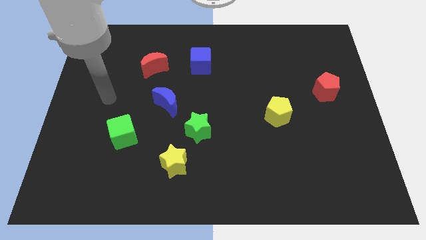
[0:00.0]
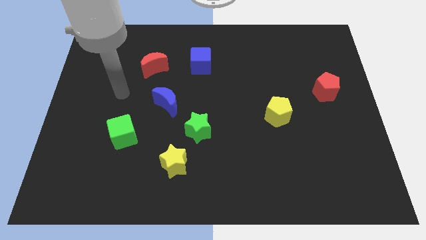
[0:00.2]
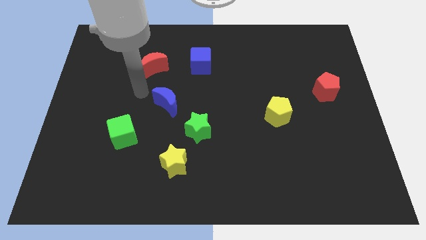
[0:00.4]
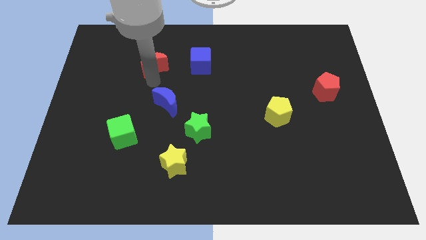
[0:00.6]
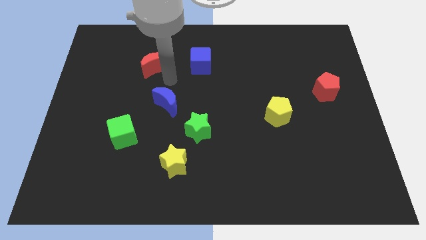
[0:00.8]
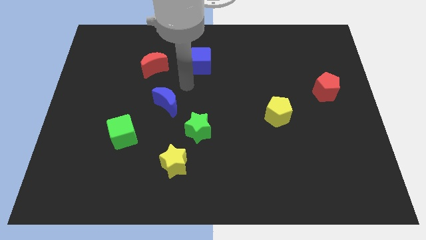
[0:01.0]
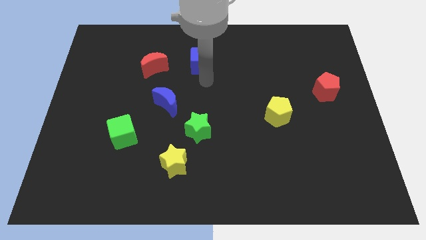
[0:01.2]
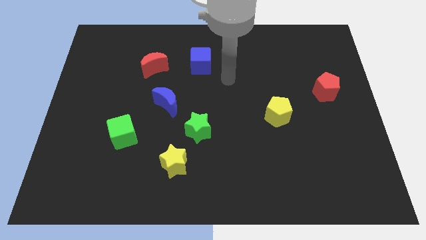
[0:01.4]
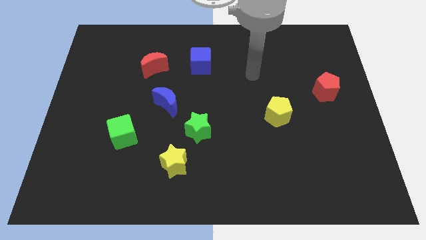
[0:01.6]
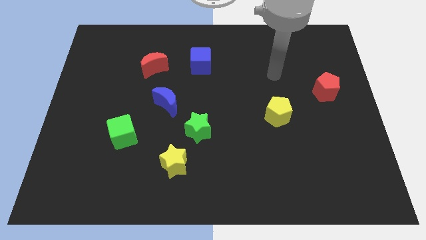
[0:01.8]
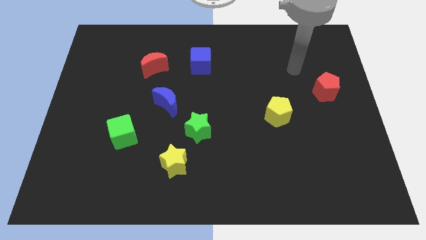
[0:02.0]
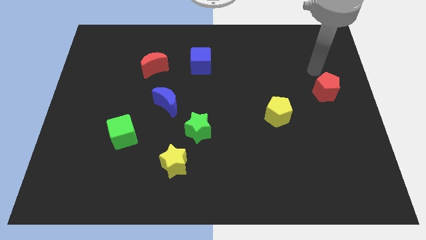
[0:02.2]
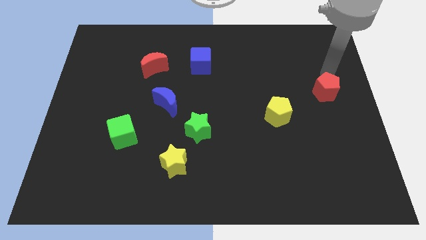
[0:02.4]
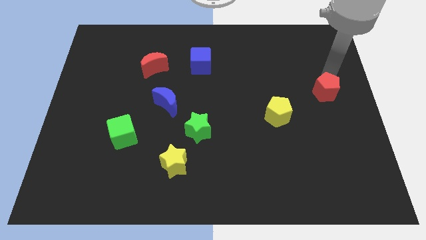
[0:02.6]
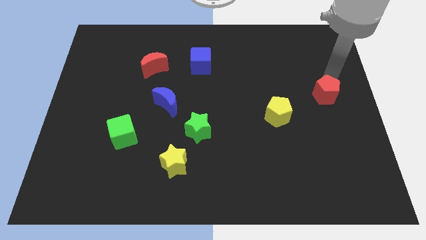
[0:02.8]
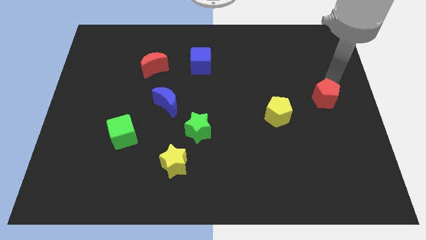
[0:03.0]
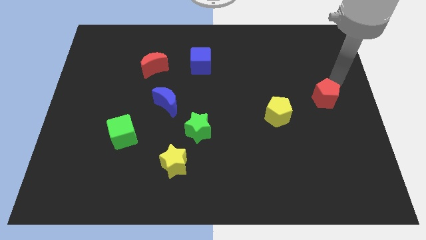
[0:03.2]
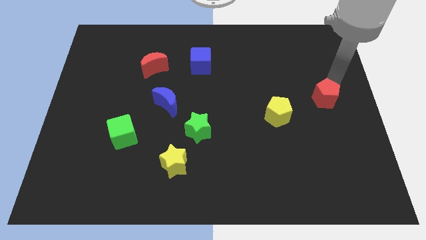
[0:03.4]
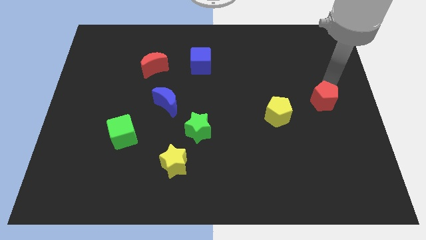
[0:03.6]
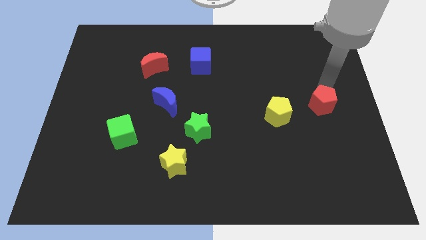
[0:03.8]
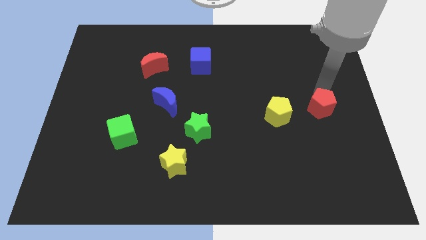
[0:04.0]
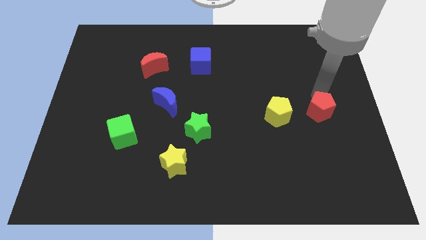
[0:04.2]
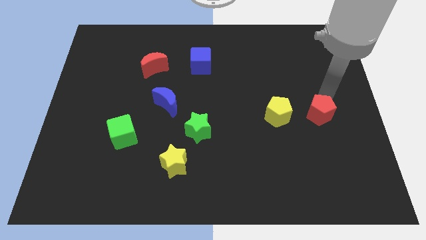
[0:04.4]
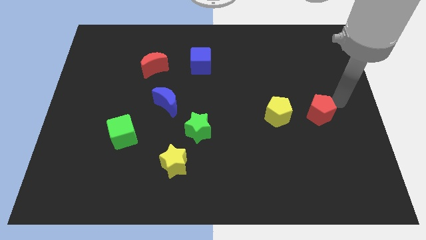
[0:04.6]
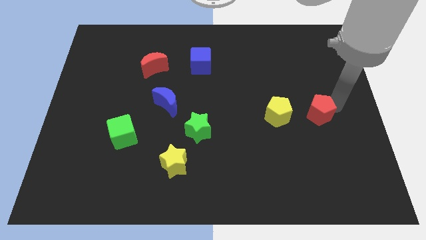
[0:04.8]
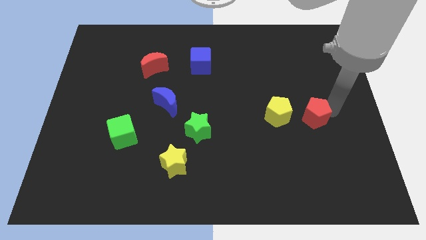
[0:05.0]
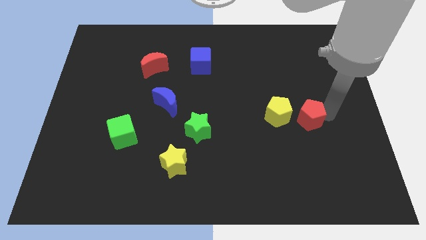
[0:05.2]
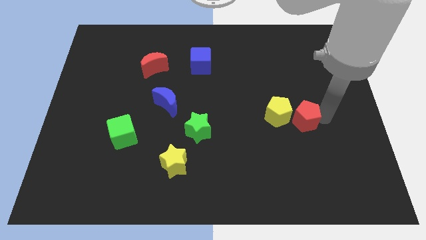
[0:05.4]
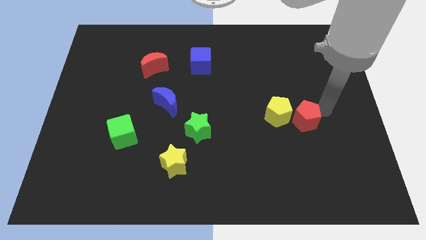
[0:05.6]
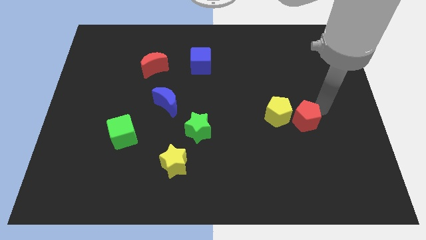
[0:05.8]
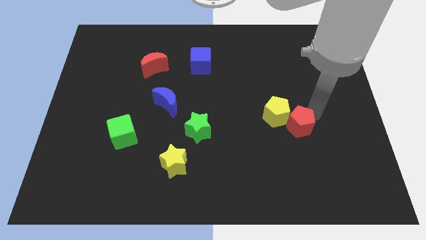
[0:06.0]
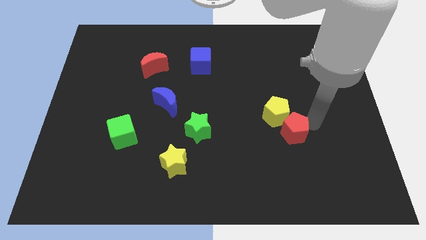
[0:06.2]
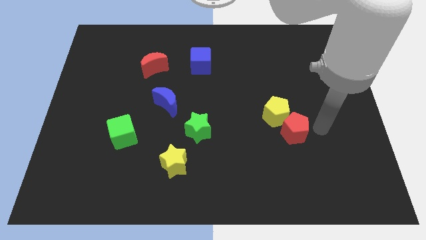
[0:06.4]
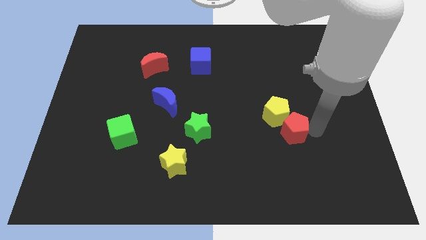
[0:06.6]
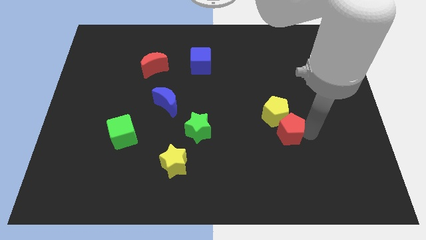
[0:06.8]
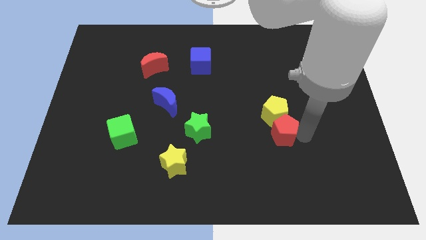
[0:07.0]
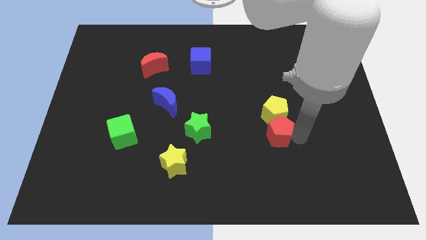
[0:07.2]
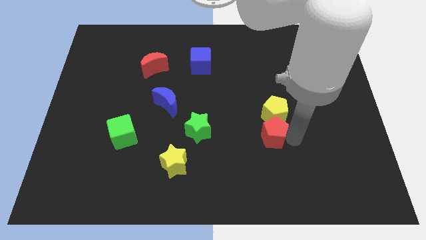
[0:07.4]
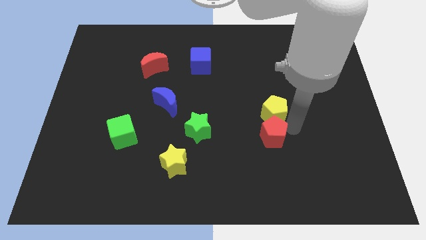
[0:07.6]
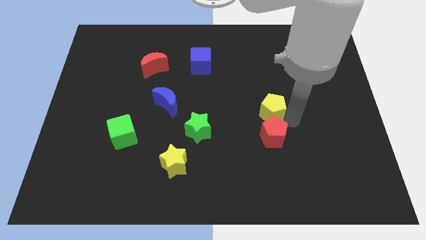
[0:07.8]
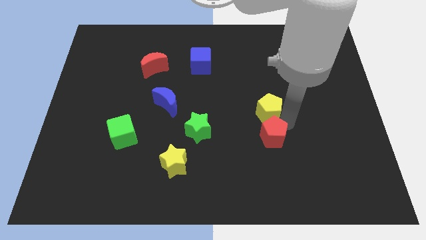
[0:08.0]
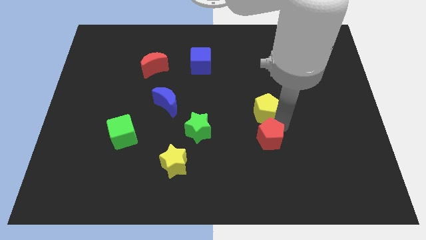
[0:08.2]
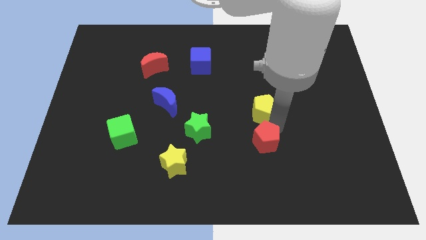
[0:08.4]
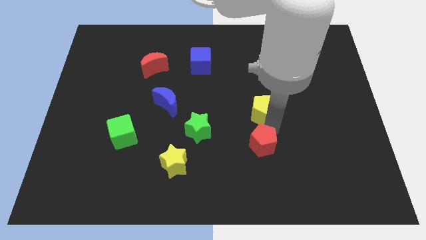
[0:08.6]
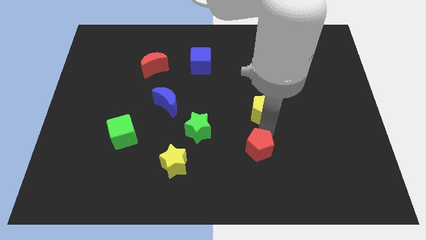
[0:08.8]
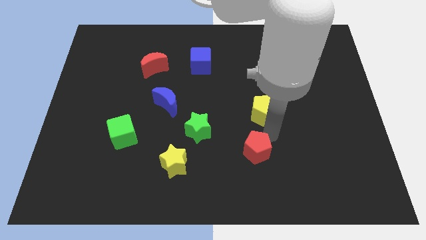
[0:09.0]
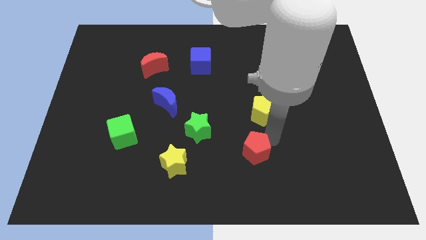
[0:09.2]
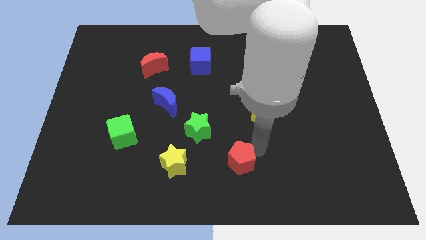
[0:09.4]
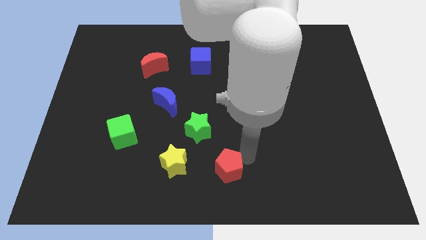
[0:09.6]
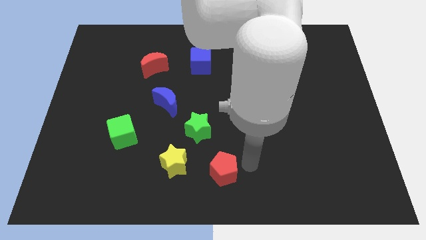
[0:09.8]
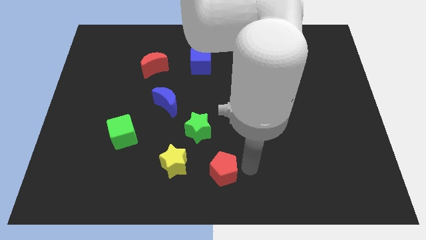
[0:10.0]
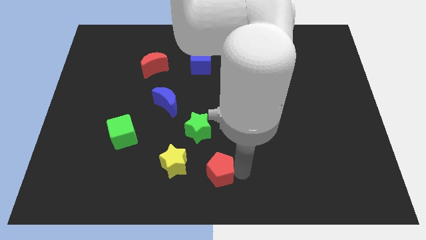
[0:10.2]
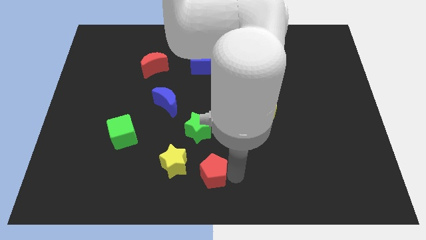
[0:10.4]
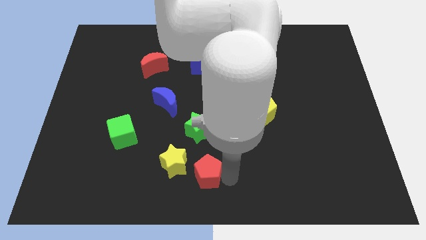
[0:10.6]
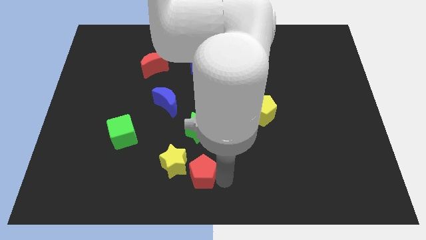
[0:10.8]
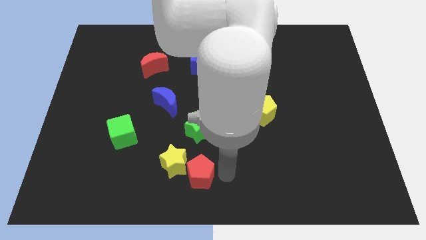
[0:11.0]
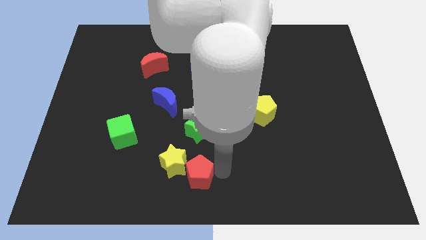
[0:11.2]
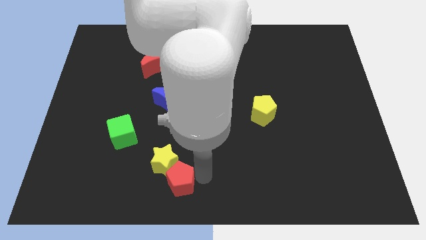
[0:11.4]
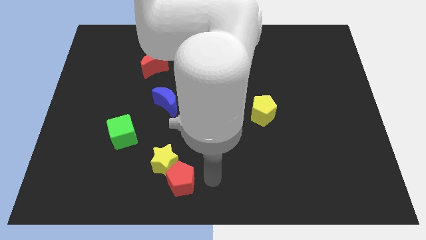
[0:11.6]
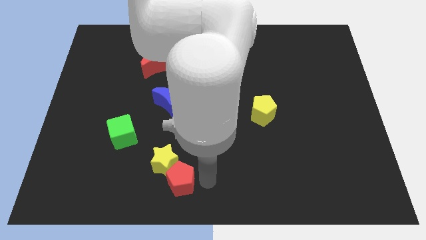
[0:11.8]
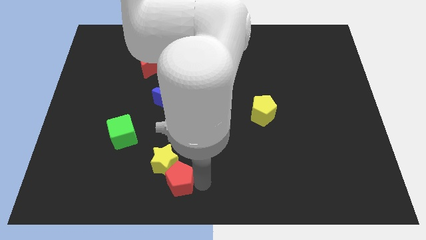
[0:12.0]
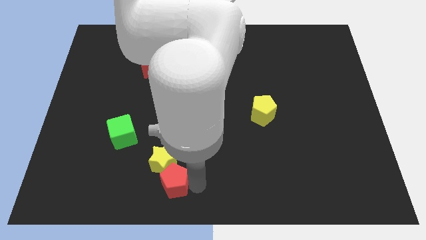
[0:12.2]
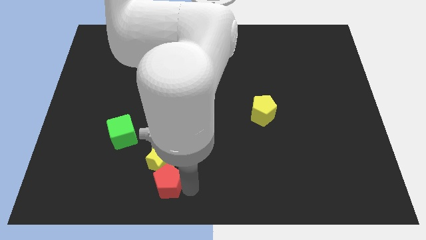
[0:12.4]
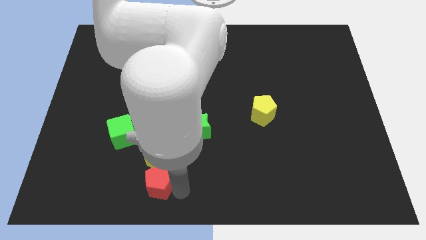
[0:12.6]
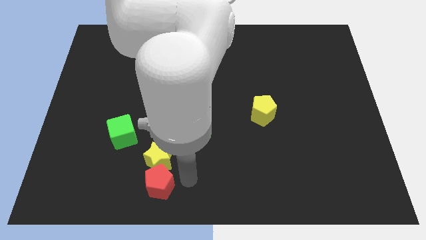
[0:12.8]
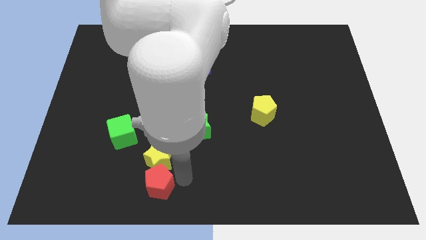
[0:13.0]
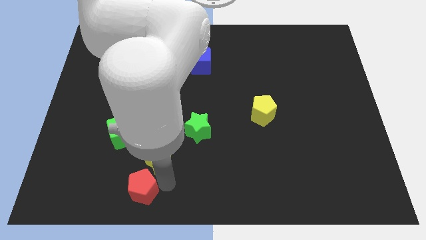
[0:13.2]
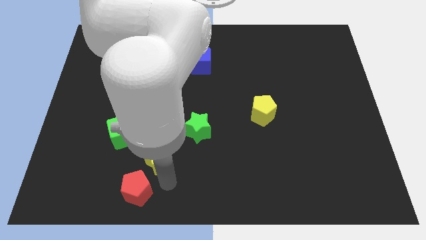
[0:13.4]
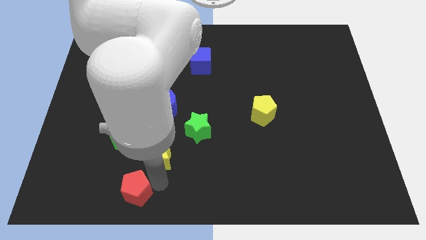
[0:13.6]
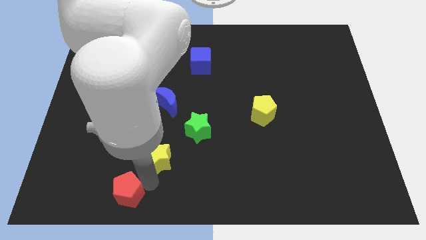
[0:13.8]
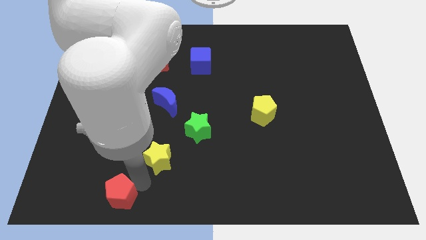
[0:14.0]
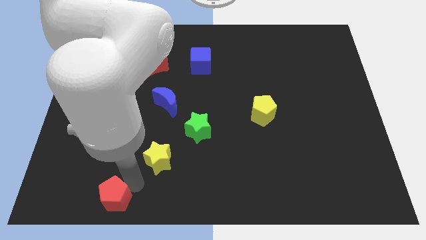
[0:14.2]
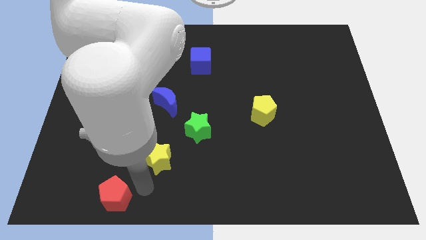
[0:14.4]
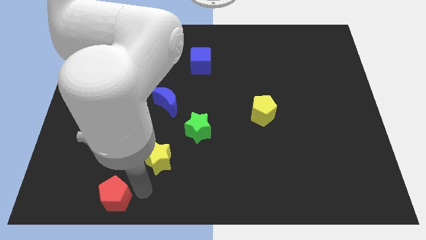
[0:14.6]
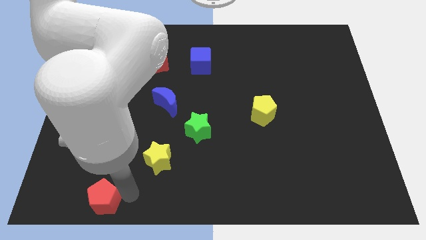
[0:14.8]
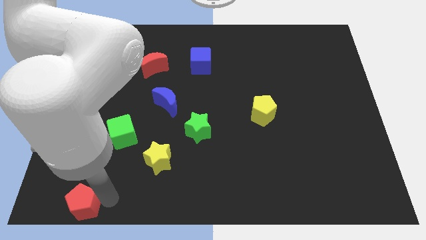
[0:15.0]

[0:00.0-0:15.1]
move the red pentagon to the bottom left corner
